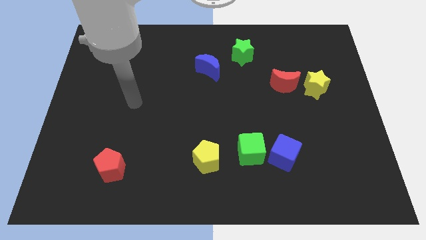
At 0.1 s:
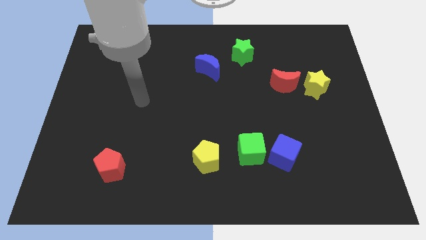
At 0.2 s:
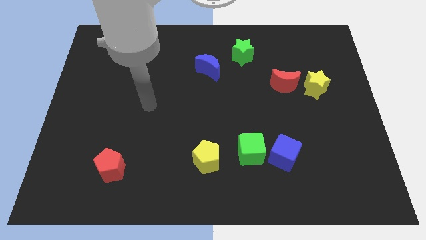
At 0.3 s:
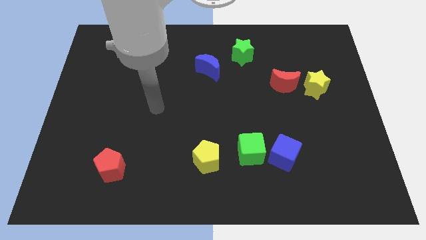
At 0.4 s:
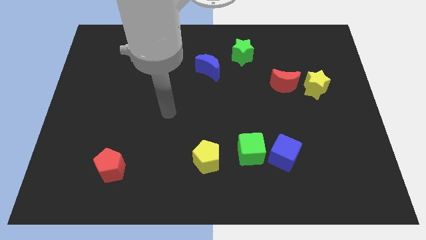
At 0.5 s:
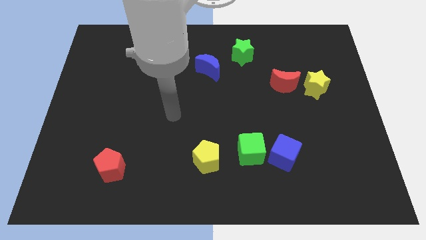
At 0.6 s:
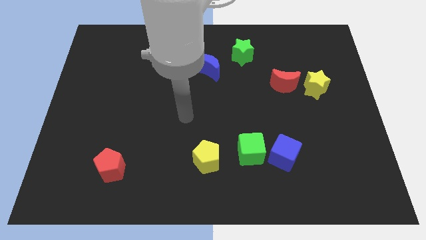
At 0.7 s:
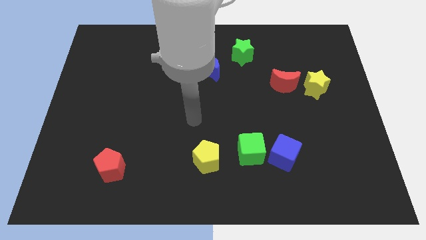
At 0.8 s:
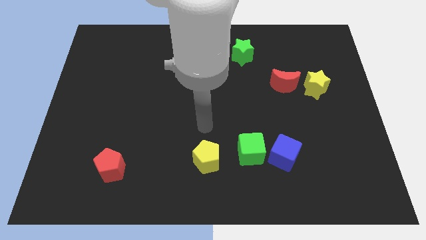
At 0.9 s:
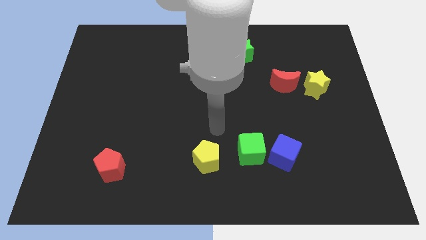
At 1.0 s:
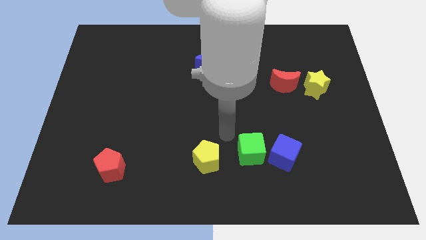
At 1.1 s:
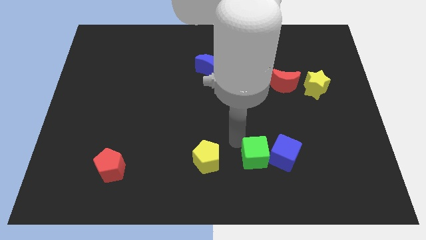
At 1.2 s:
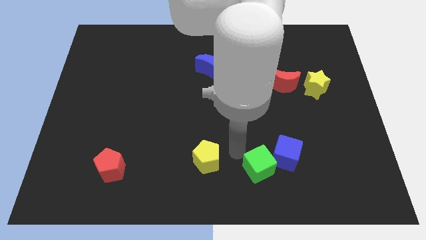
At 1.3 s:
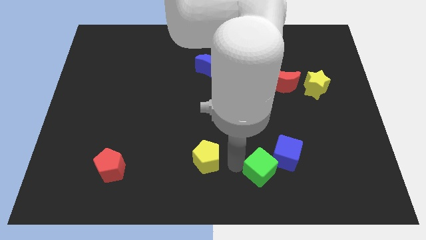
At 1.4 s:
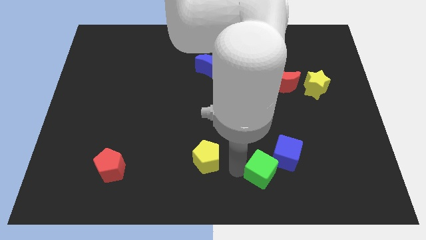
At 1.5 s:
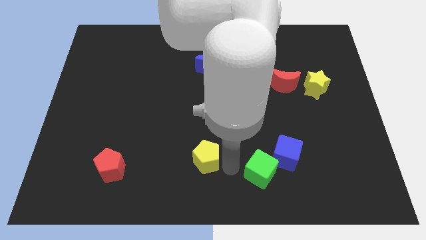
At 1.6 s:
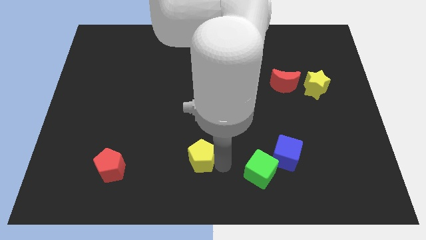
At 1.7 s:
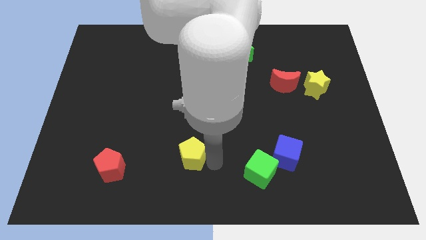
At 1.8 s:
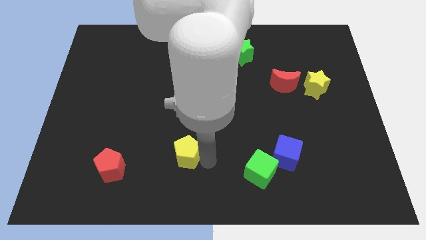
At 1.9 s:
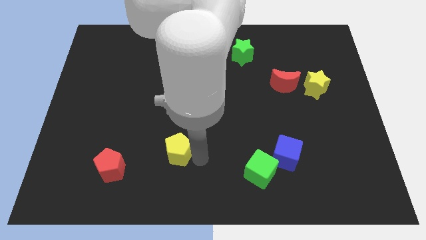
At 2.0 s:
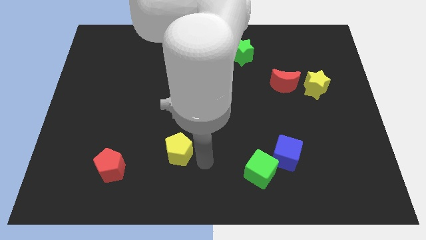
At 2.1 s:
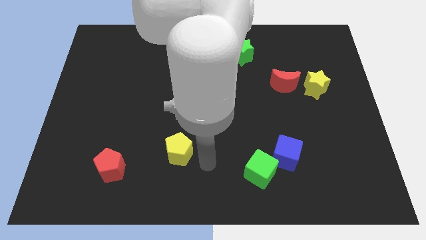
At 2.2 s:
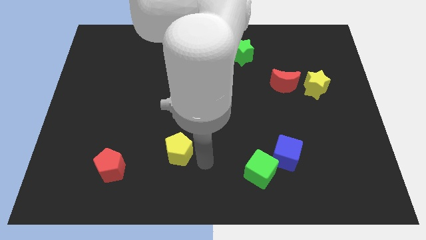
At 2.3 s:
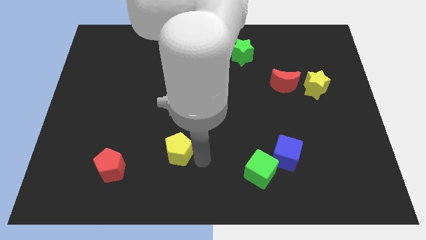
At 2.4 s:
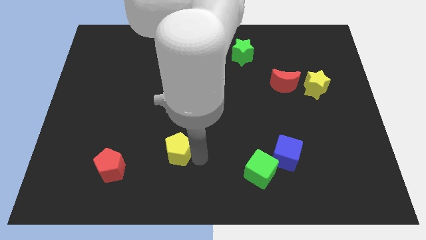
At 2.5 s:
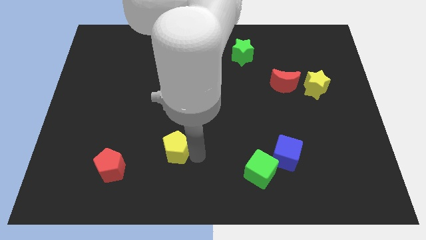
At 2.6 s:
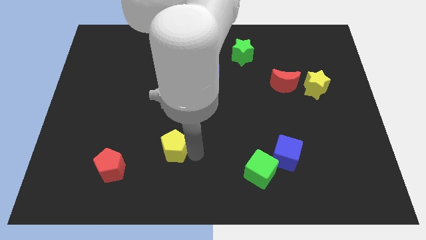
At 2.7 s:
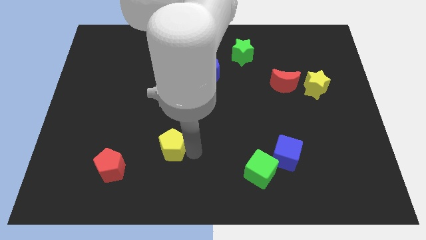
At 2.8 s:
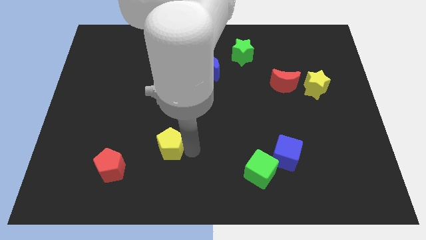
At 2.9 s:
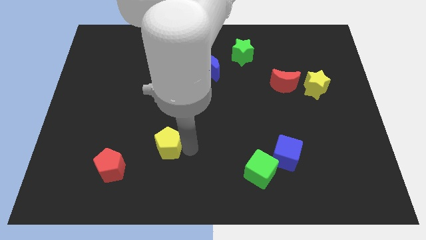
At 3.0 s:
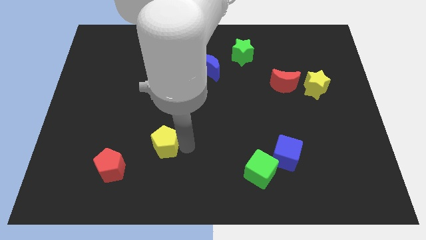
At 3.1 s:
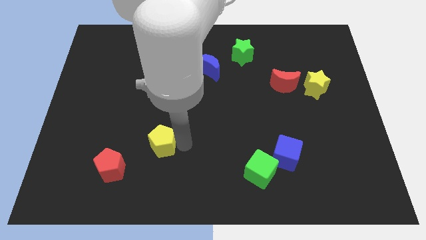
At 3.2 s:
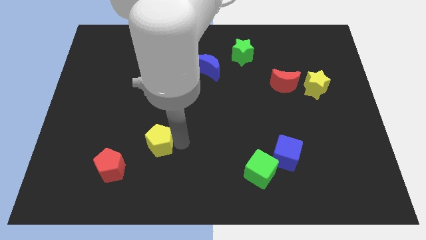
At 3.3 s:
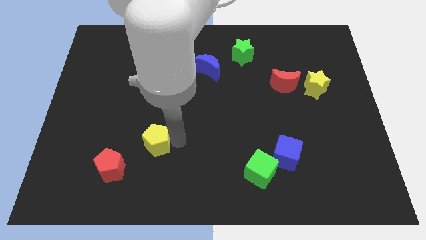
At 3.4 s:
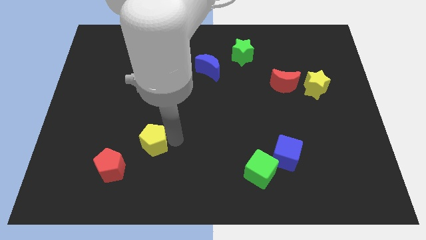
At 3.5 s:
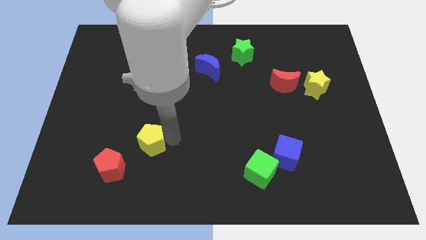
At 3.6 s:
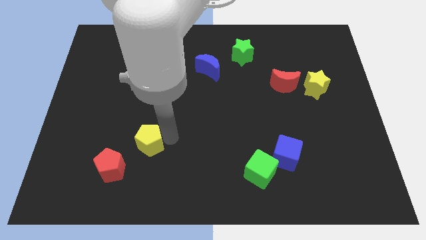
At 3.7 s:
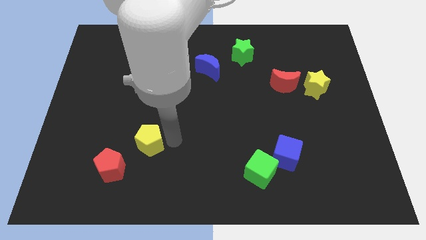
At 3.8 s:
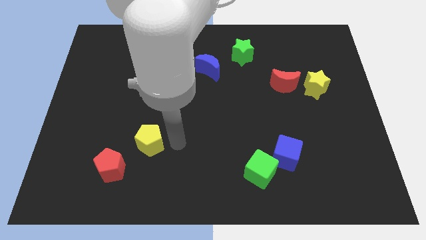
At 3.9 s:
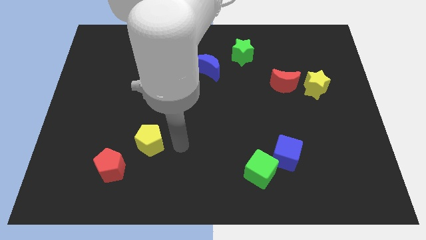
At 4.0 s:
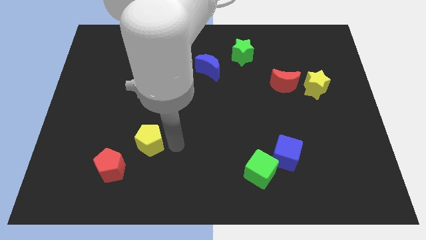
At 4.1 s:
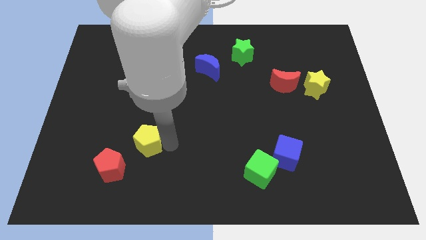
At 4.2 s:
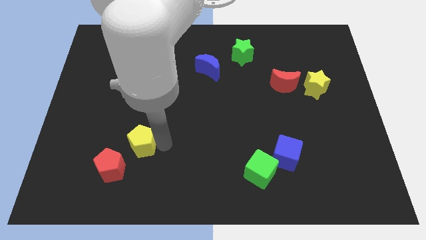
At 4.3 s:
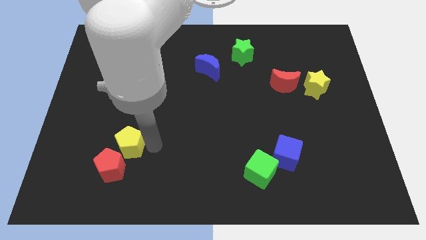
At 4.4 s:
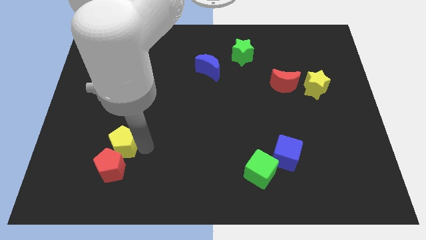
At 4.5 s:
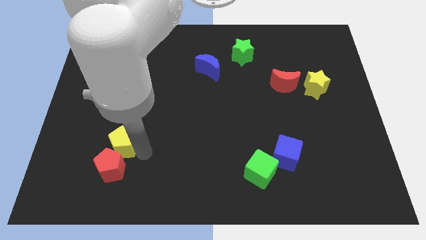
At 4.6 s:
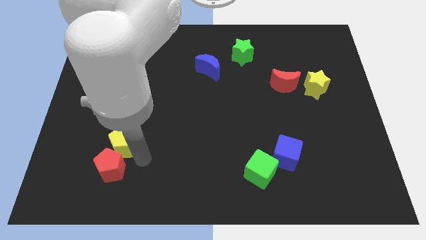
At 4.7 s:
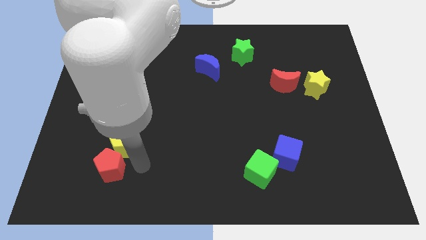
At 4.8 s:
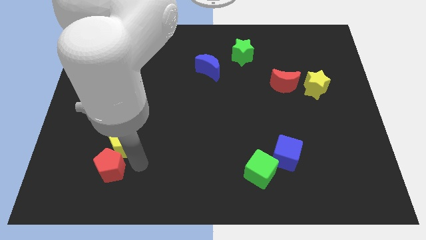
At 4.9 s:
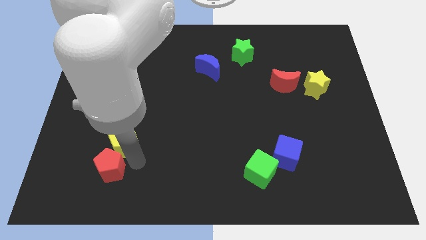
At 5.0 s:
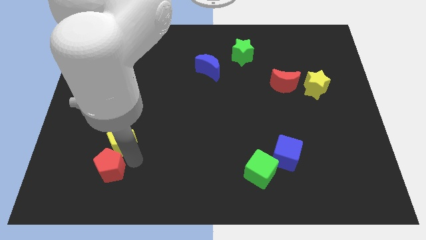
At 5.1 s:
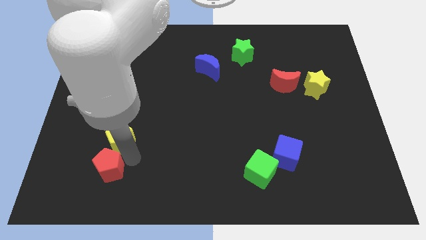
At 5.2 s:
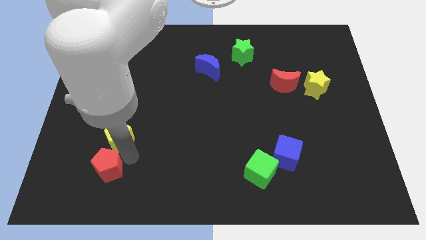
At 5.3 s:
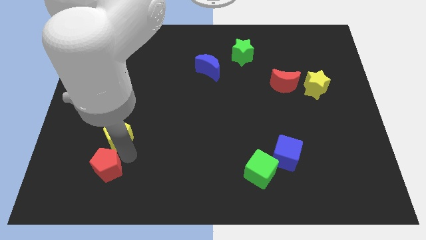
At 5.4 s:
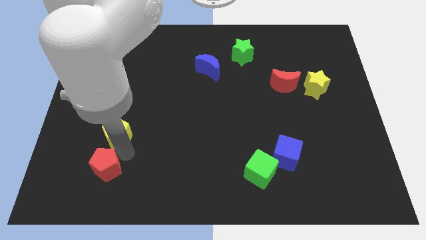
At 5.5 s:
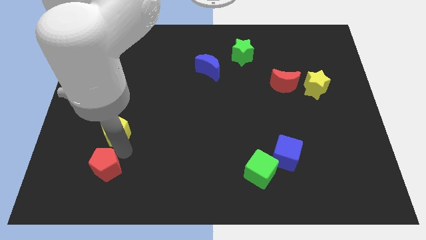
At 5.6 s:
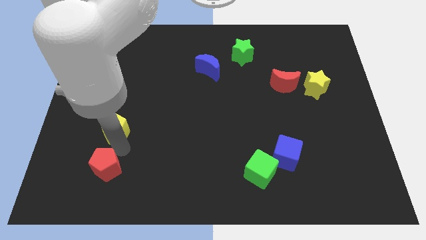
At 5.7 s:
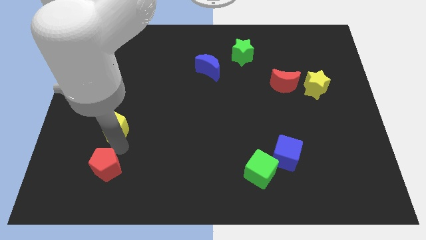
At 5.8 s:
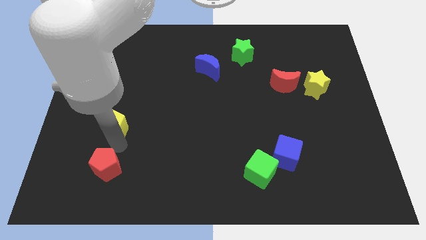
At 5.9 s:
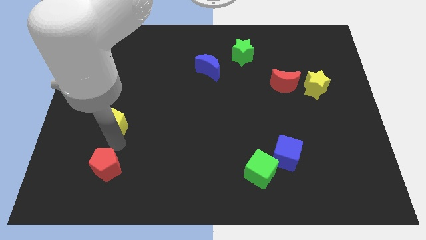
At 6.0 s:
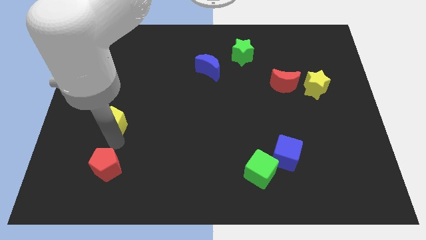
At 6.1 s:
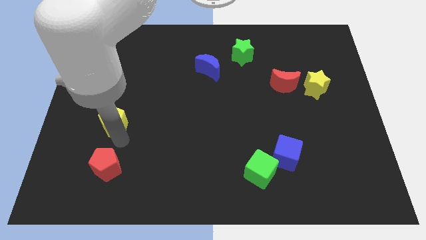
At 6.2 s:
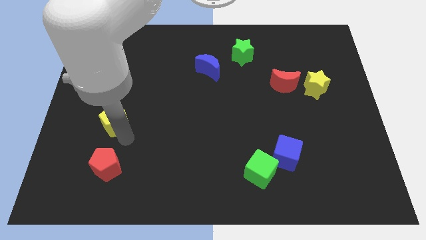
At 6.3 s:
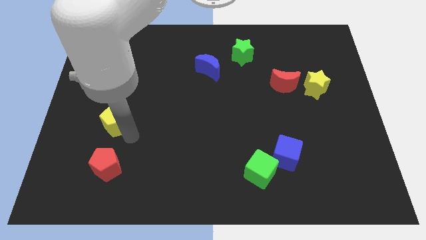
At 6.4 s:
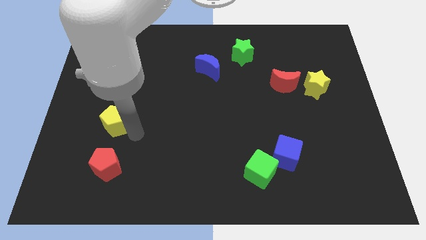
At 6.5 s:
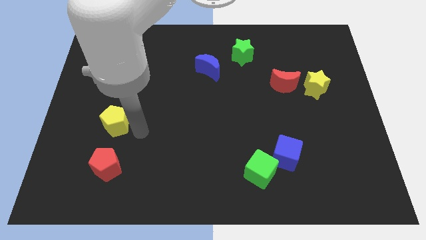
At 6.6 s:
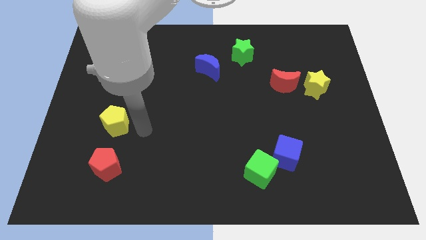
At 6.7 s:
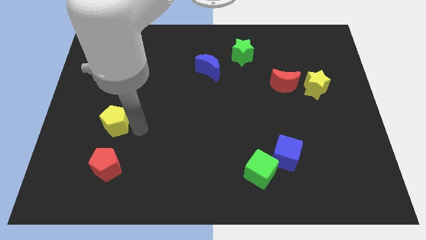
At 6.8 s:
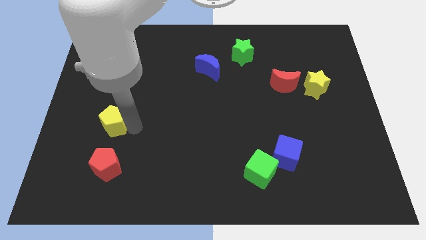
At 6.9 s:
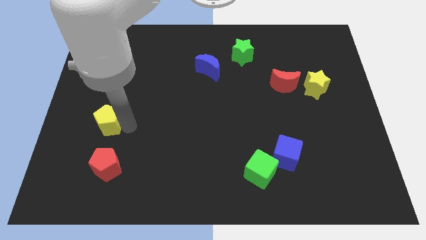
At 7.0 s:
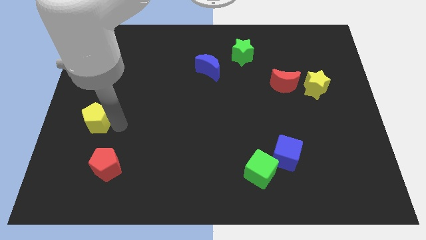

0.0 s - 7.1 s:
put the yellow pentagon to the left side of the board

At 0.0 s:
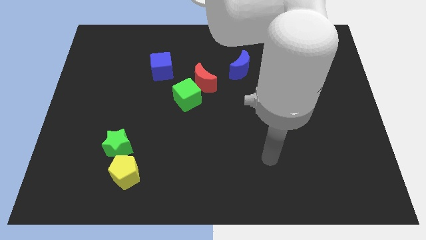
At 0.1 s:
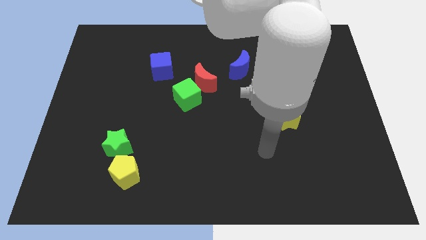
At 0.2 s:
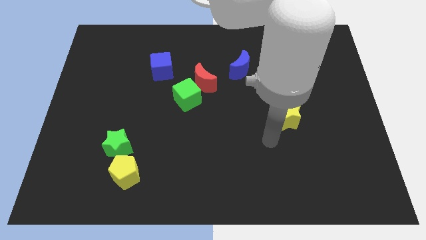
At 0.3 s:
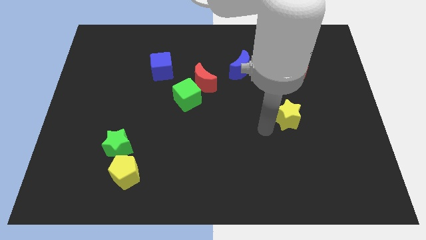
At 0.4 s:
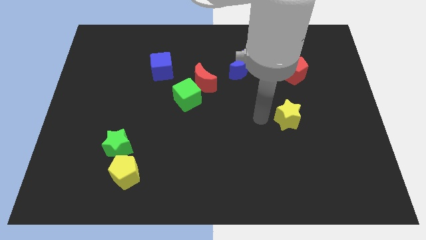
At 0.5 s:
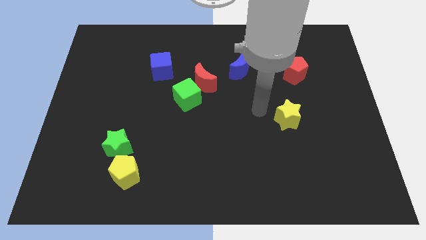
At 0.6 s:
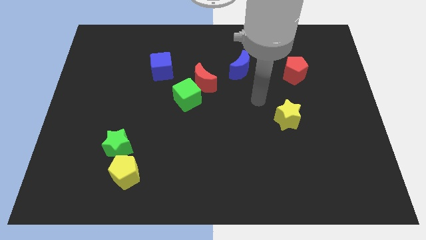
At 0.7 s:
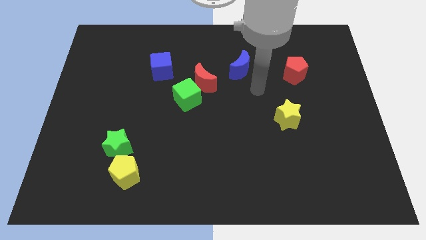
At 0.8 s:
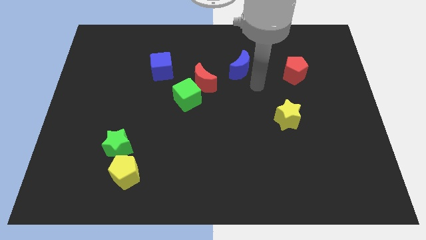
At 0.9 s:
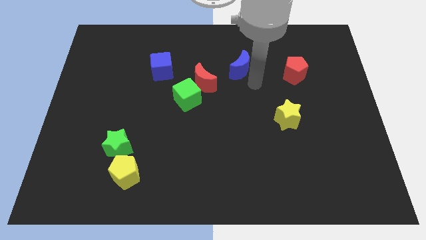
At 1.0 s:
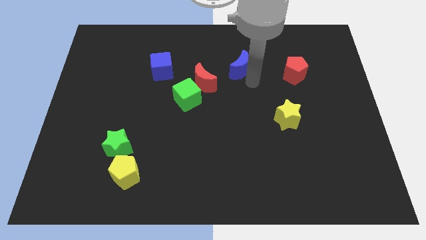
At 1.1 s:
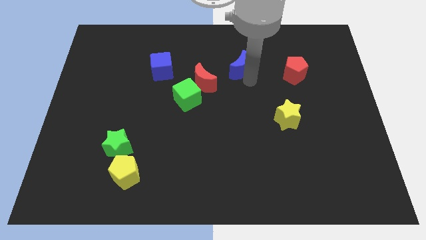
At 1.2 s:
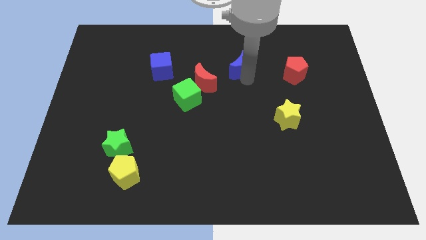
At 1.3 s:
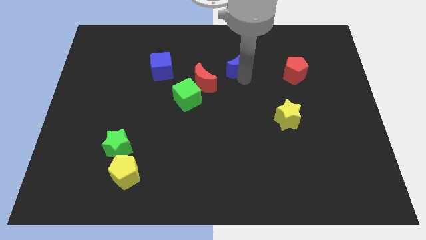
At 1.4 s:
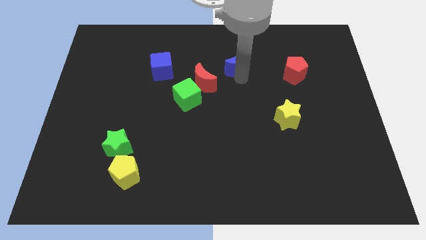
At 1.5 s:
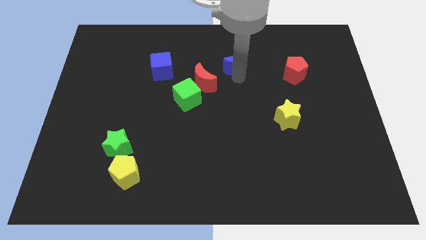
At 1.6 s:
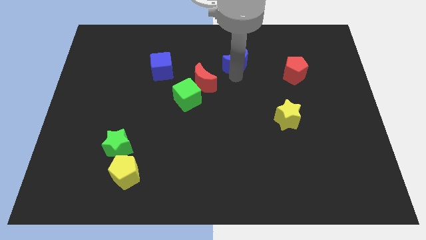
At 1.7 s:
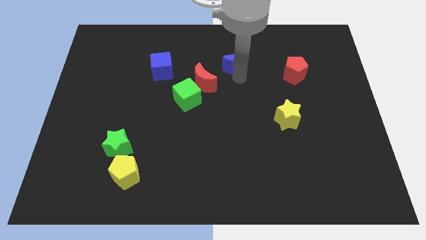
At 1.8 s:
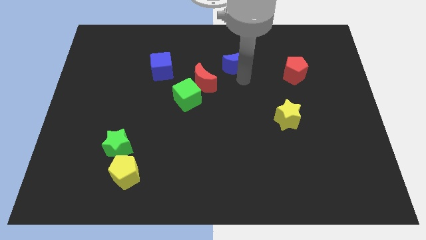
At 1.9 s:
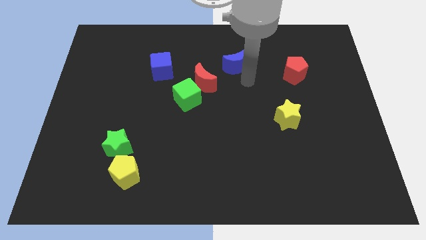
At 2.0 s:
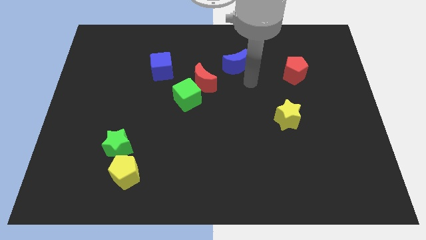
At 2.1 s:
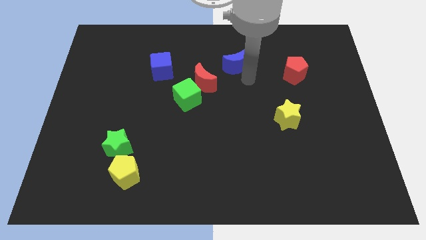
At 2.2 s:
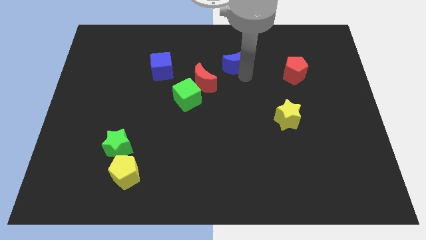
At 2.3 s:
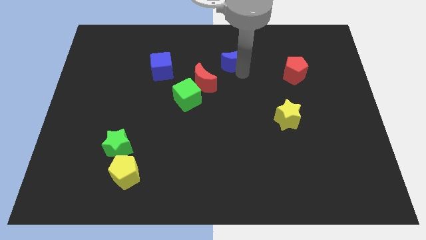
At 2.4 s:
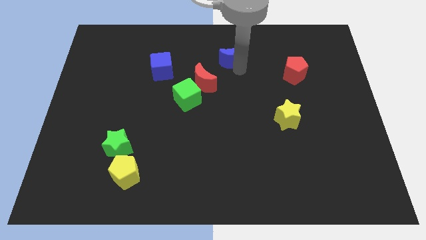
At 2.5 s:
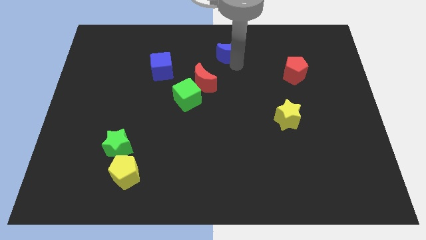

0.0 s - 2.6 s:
put the blue moon to the top side
